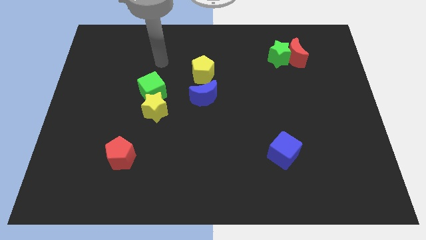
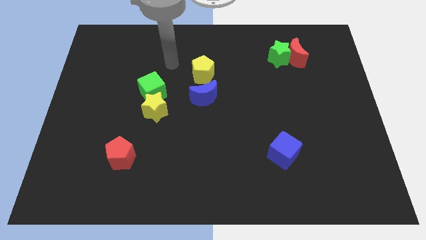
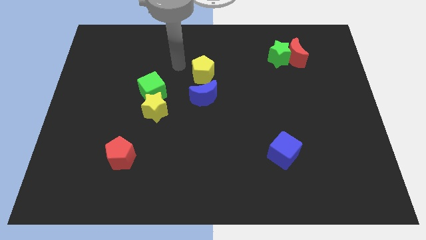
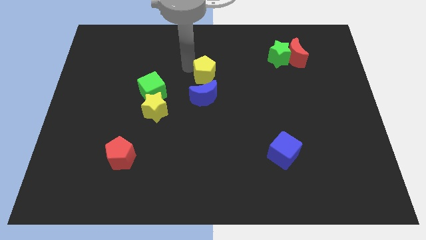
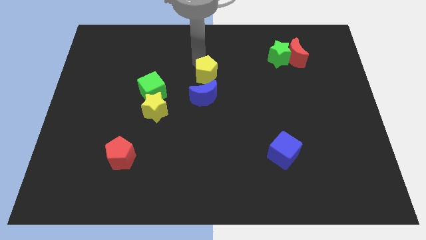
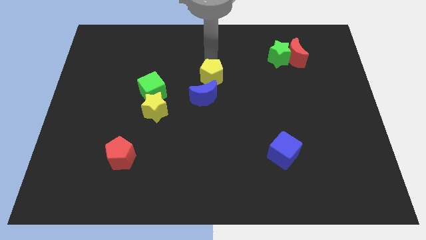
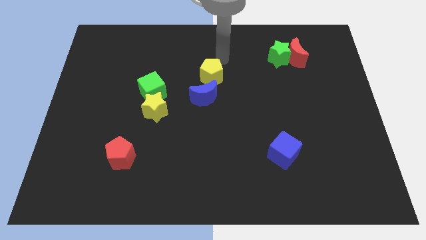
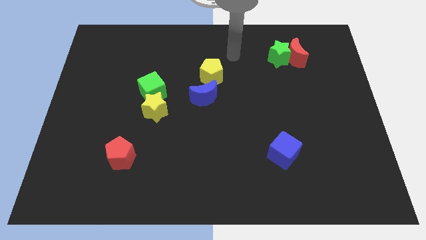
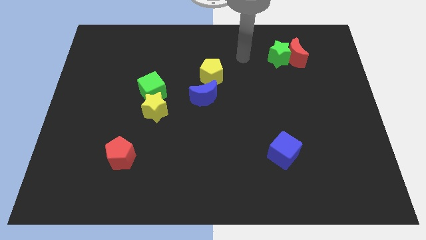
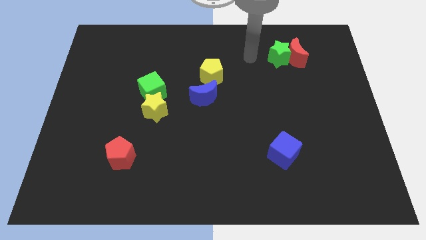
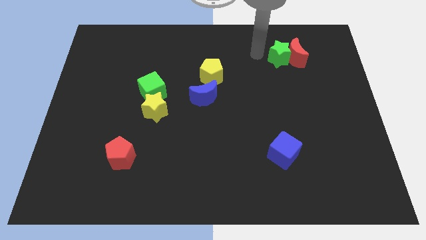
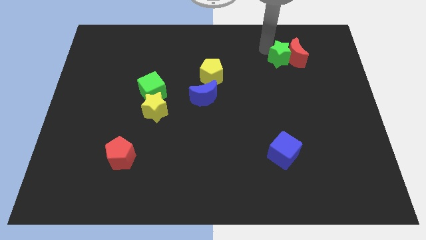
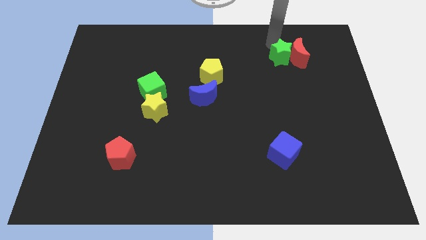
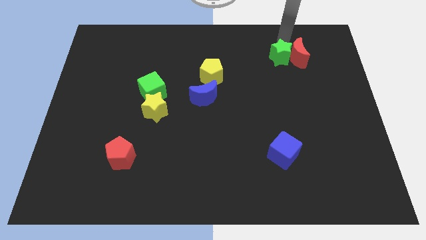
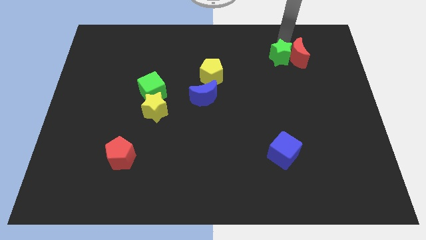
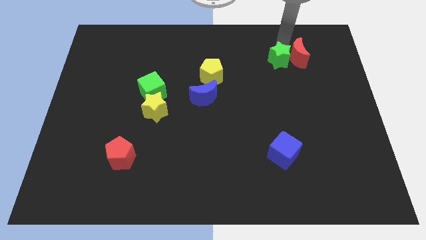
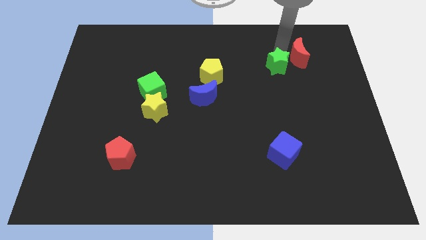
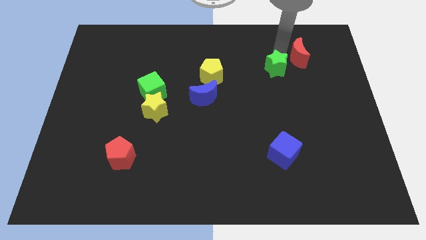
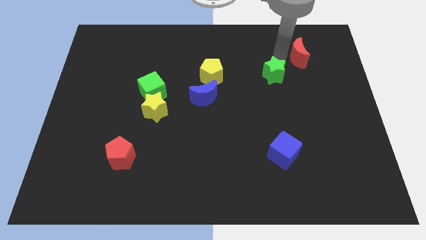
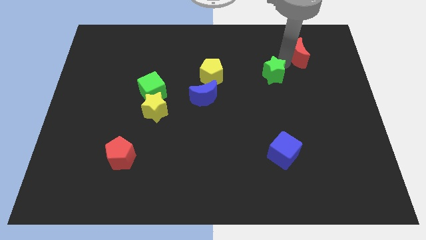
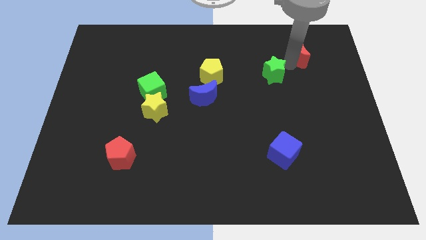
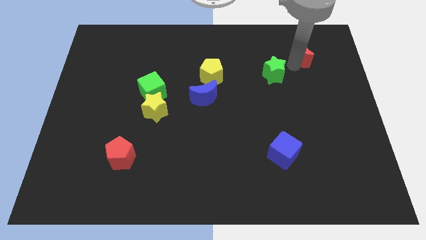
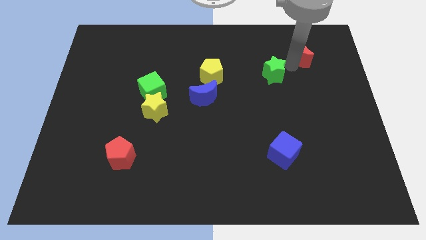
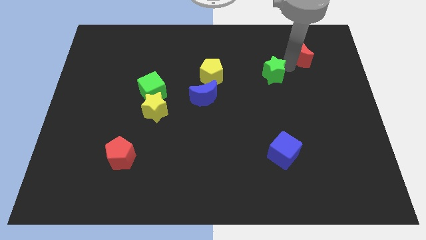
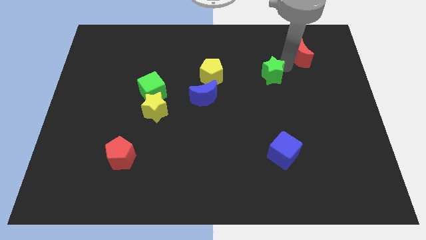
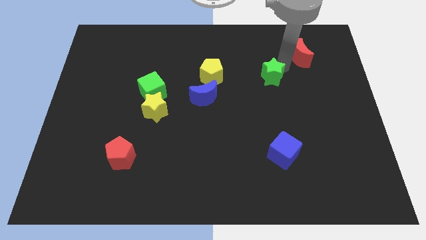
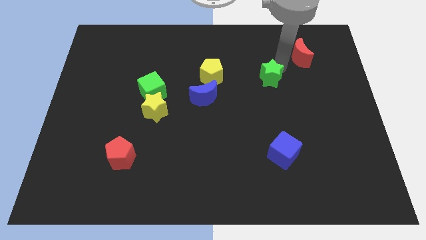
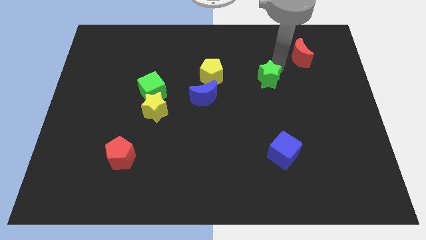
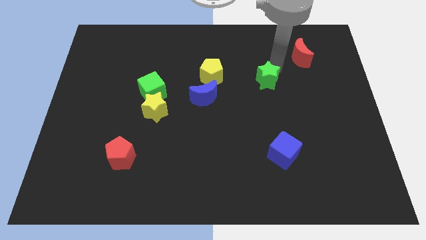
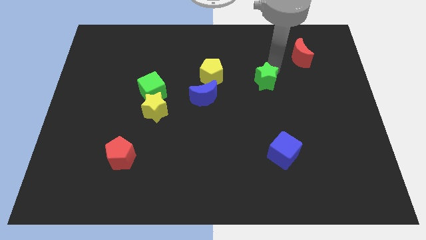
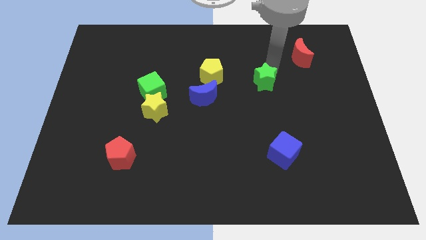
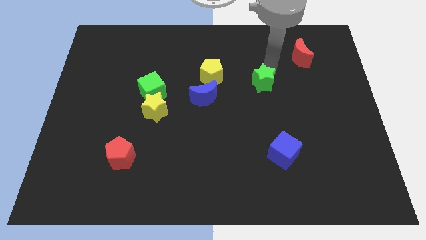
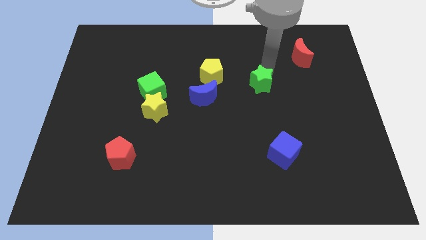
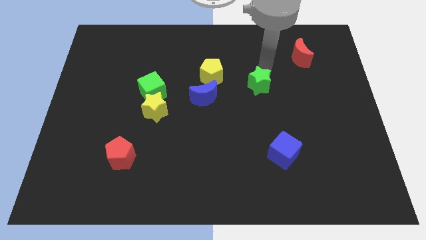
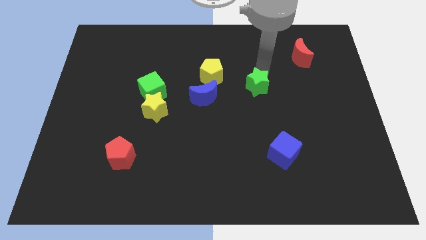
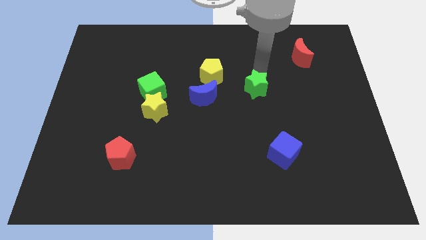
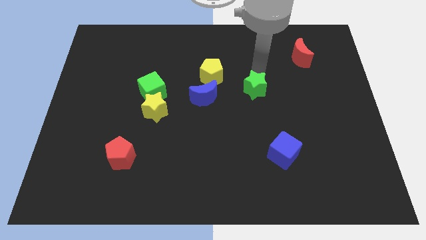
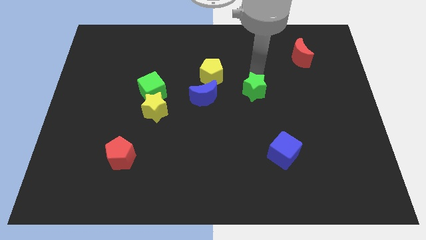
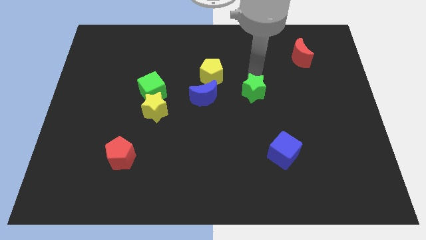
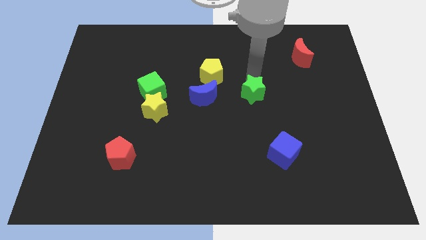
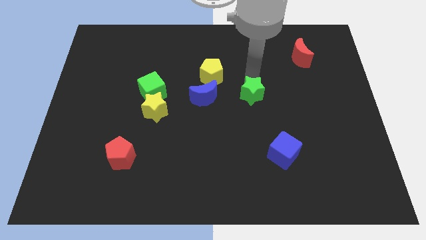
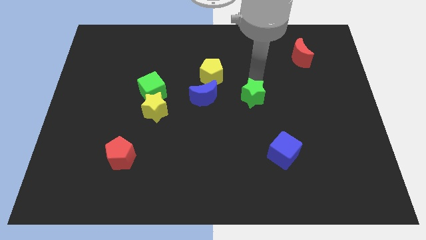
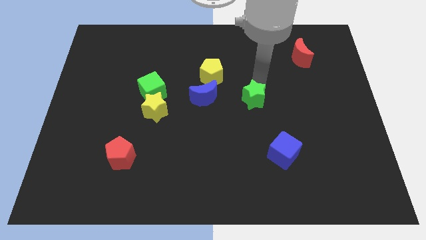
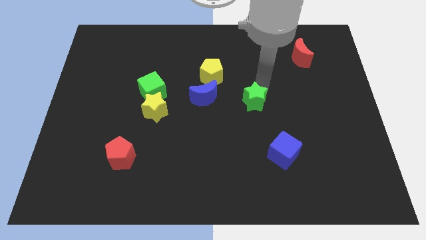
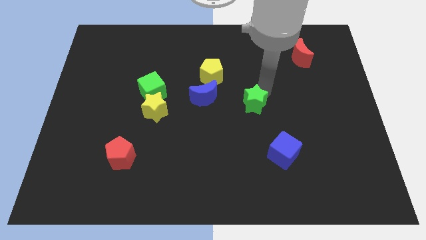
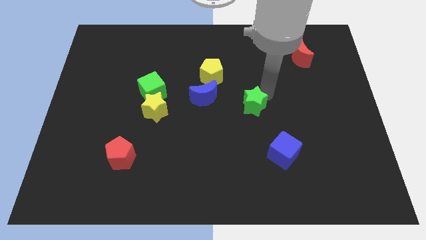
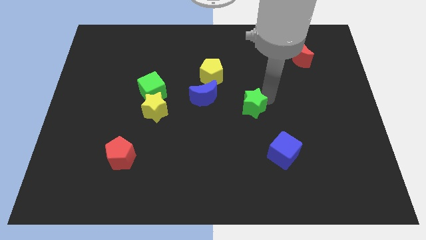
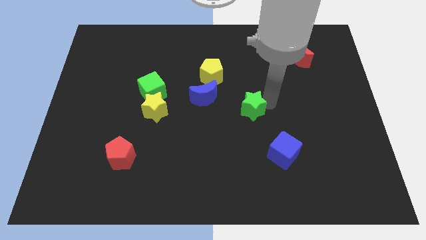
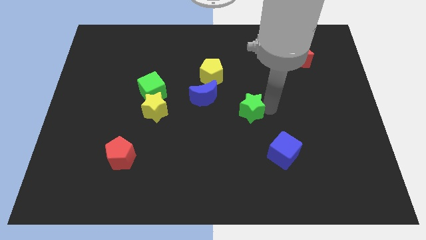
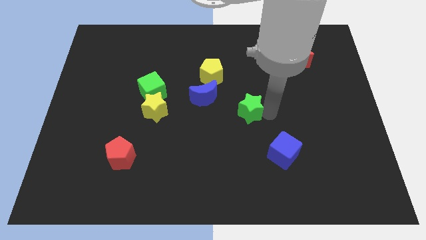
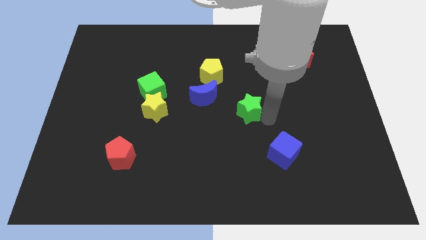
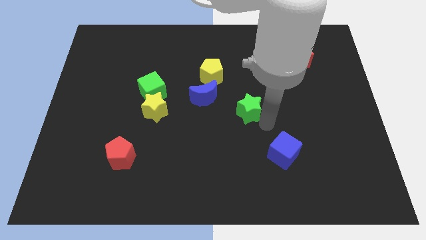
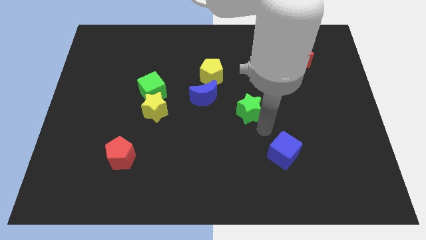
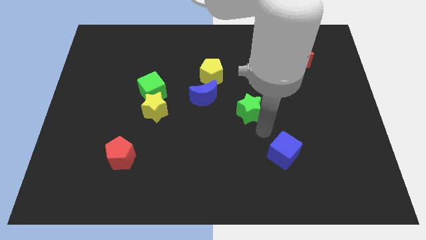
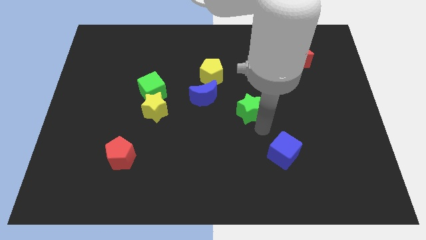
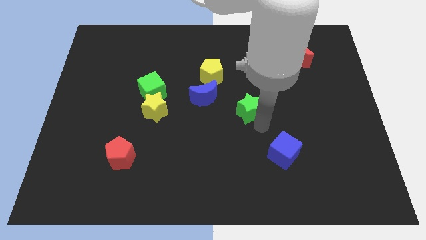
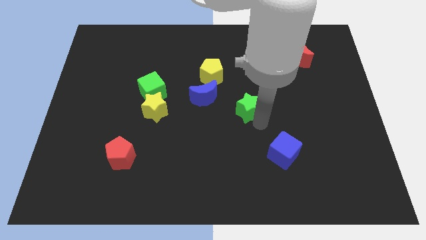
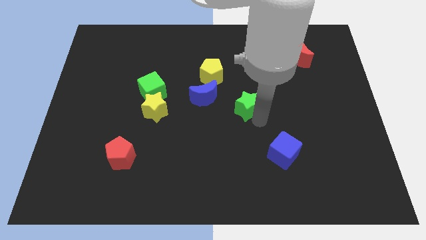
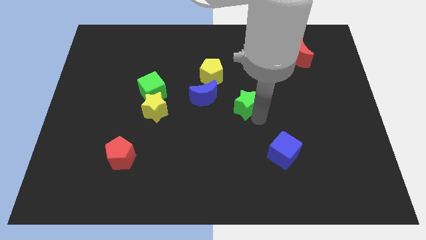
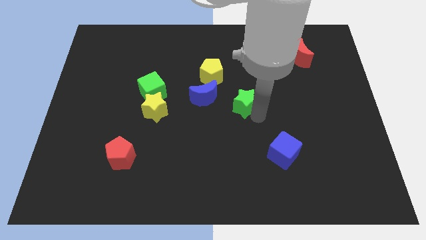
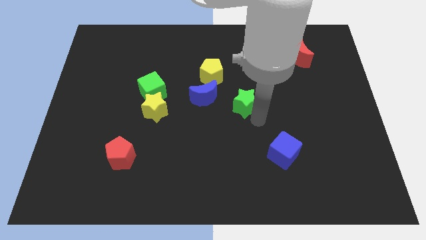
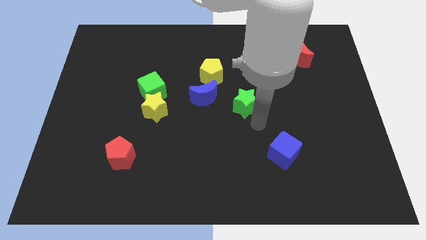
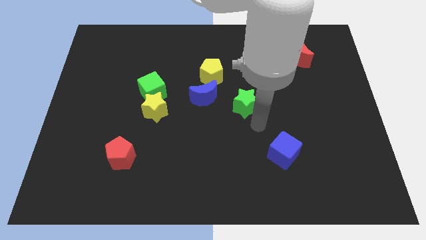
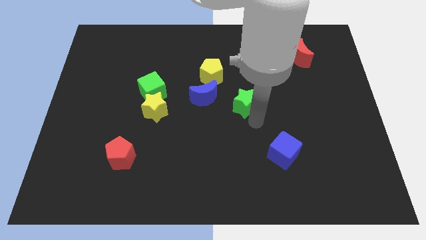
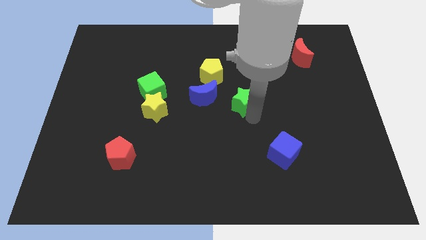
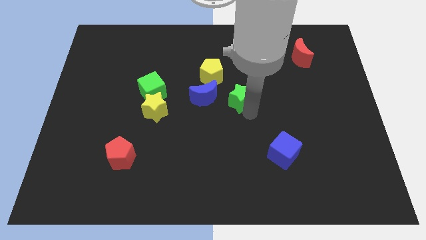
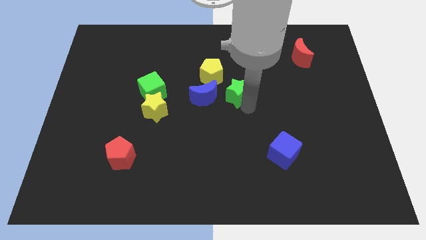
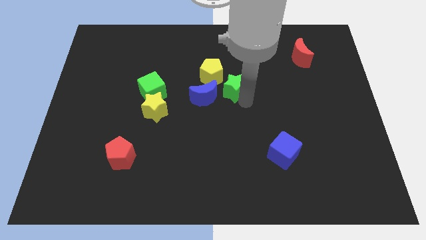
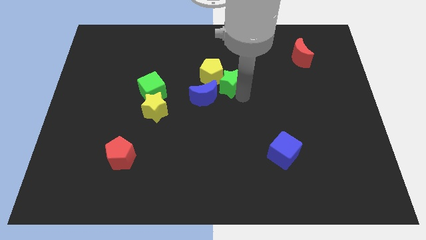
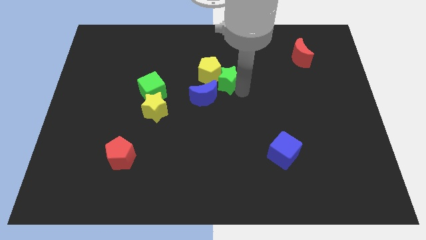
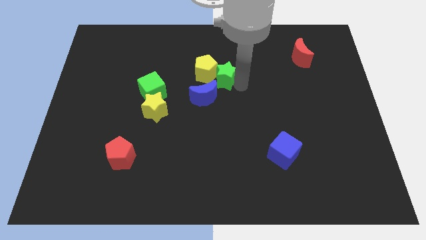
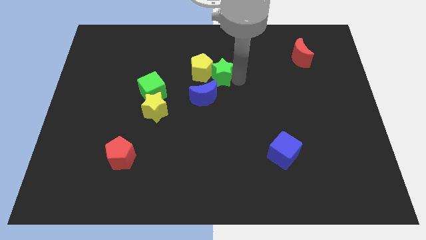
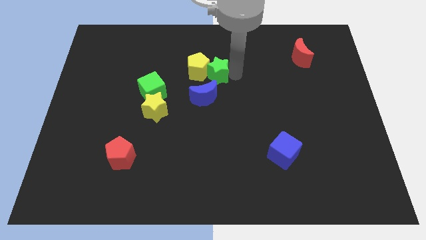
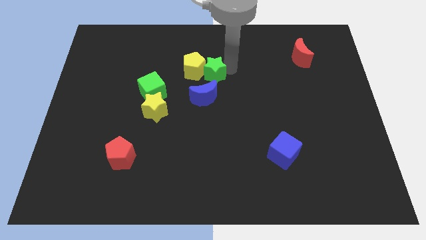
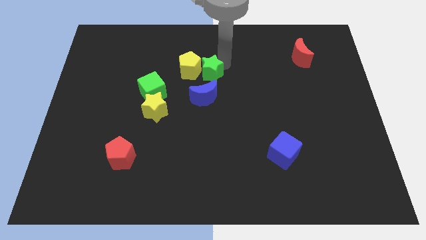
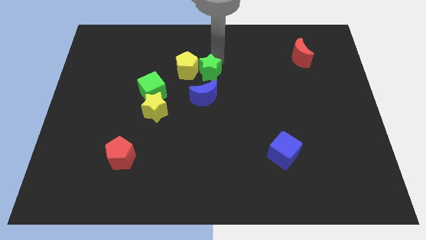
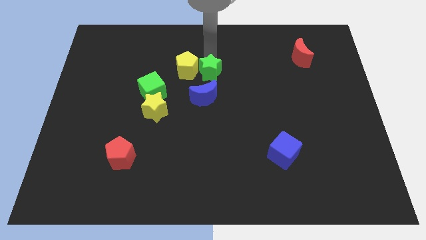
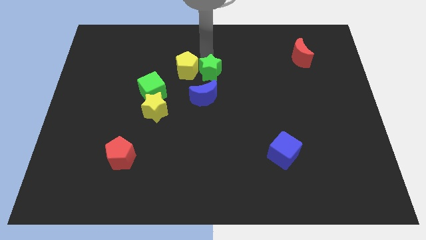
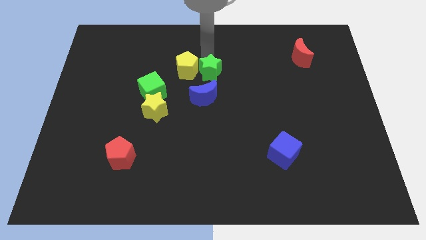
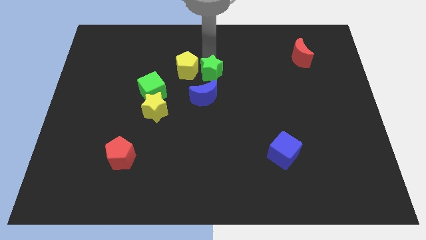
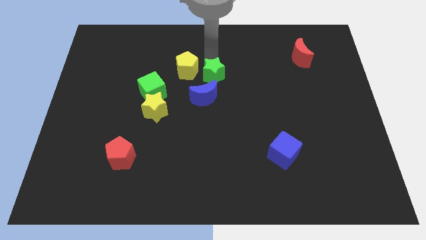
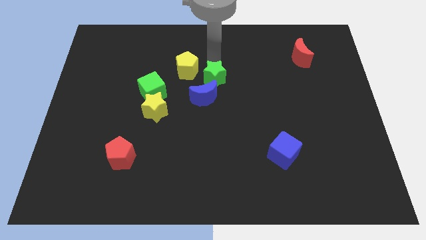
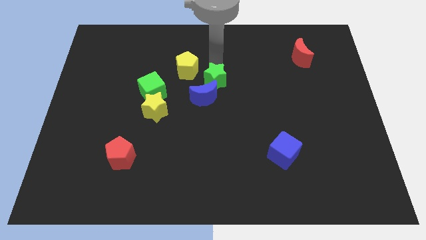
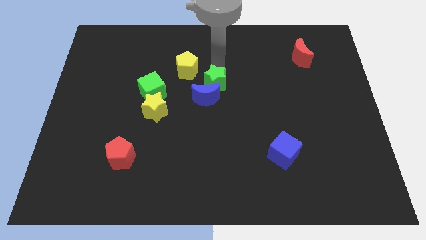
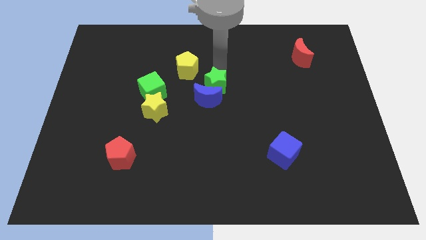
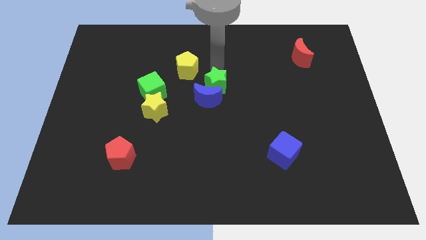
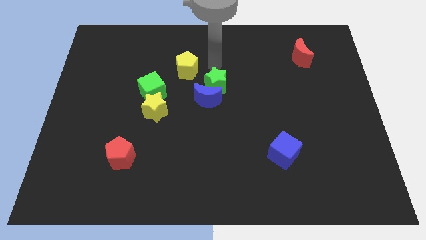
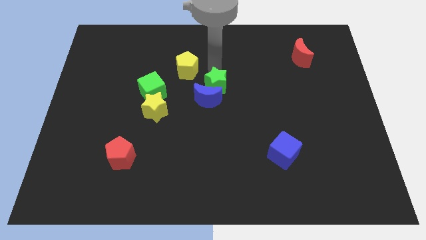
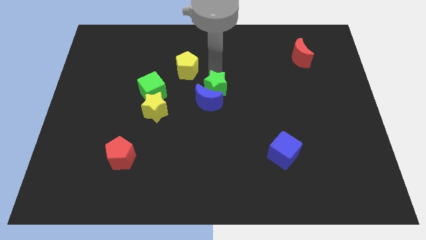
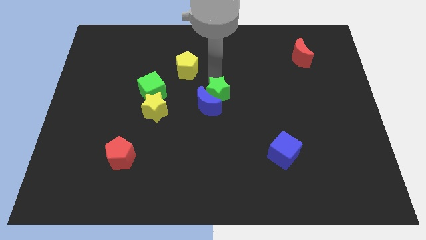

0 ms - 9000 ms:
push the green star down and left
